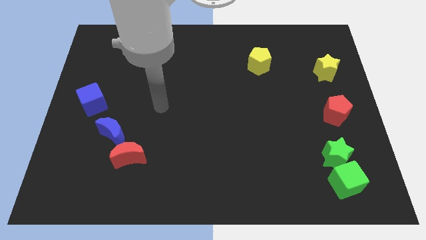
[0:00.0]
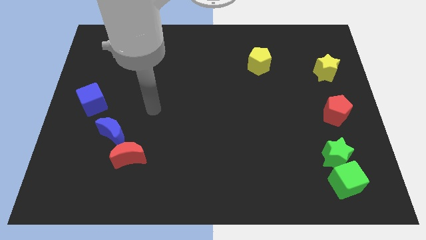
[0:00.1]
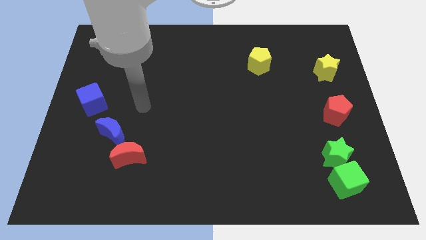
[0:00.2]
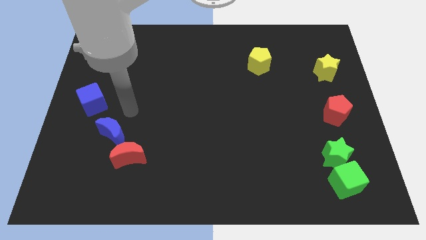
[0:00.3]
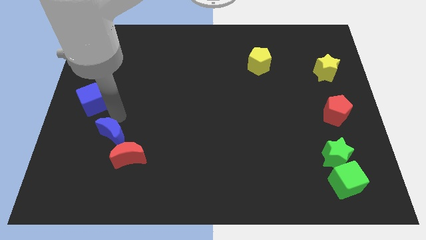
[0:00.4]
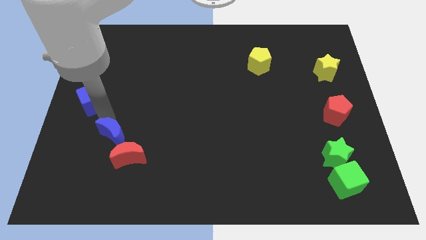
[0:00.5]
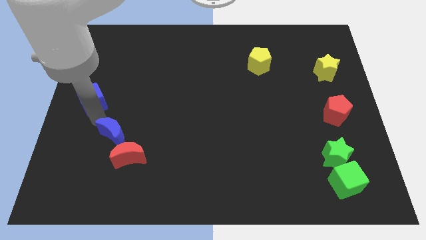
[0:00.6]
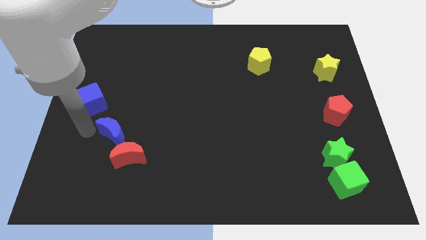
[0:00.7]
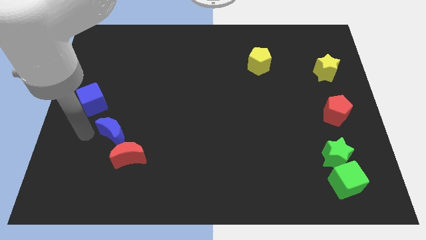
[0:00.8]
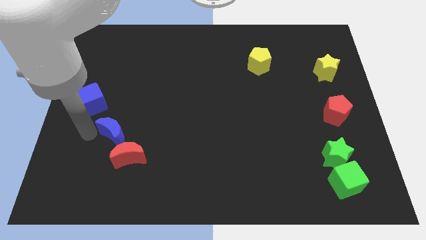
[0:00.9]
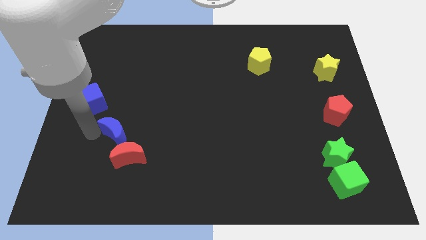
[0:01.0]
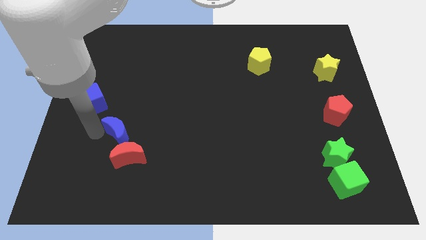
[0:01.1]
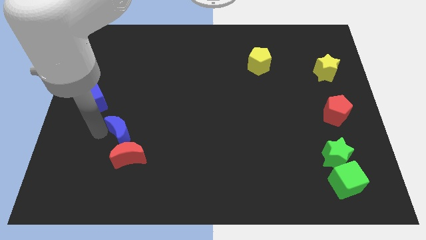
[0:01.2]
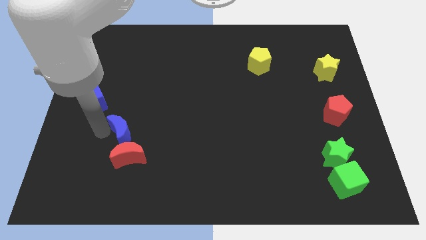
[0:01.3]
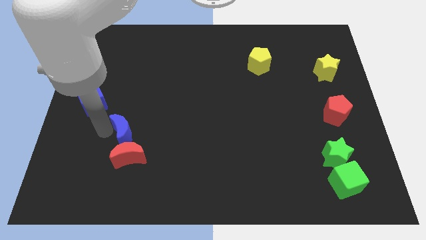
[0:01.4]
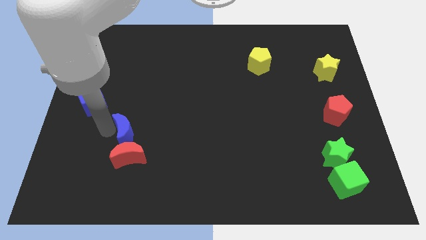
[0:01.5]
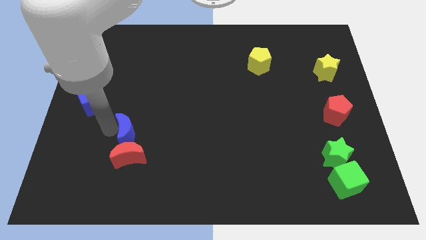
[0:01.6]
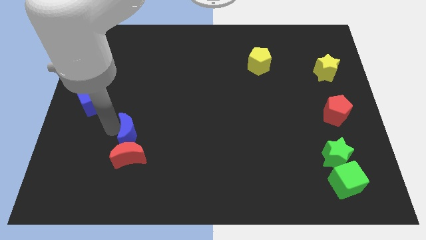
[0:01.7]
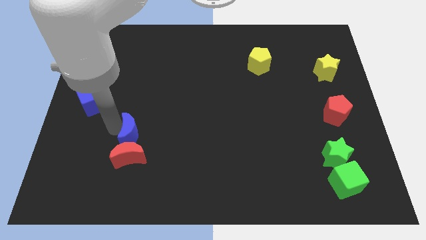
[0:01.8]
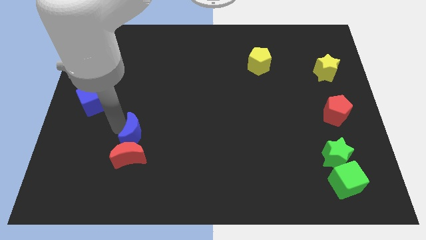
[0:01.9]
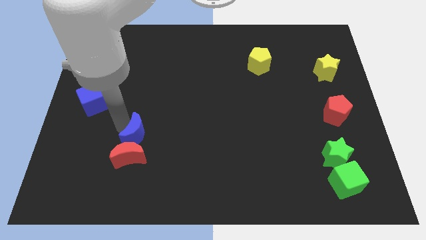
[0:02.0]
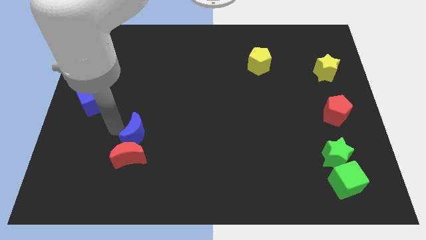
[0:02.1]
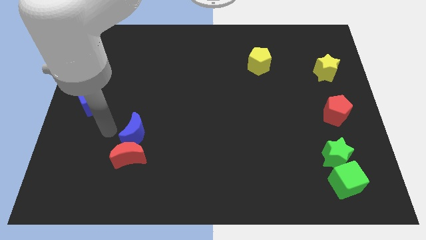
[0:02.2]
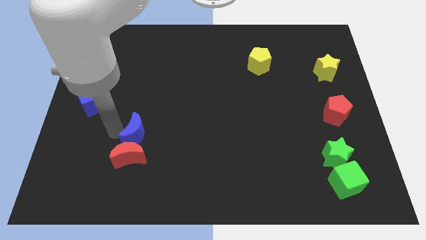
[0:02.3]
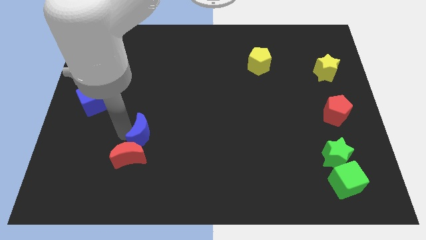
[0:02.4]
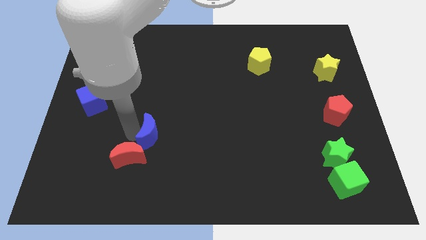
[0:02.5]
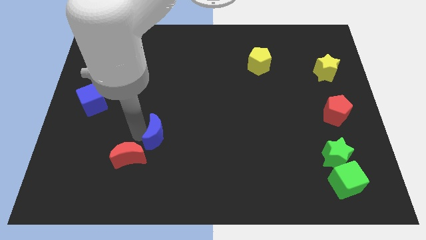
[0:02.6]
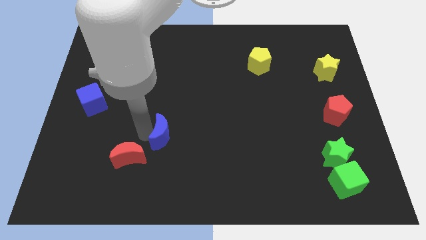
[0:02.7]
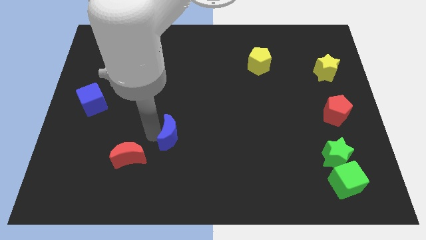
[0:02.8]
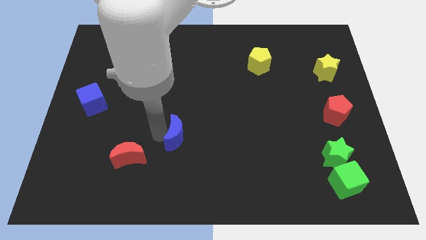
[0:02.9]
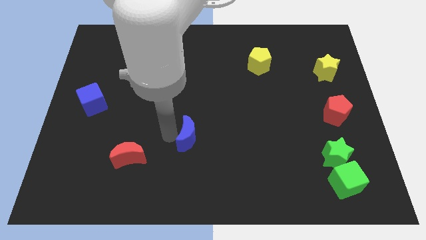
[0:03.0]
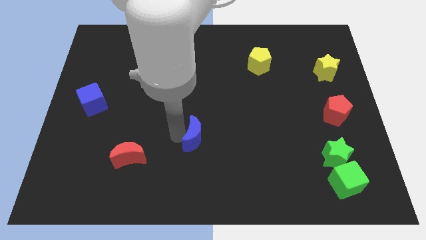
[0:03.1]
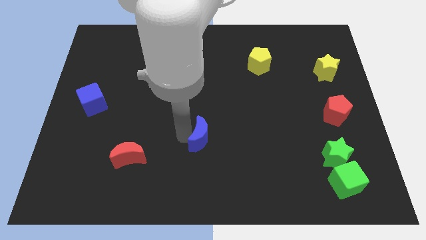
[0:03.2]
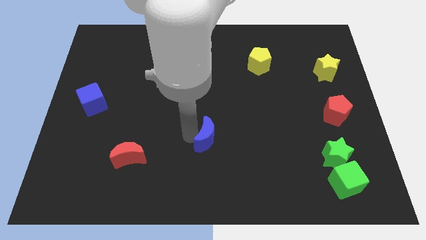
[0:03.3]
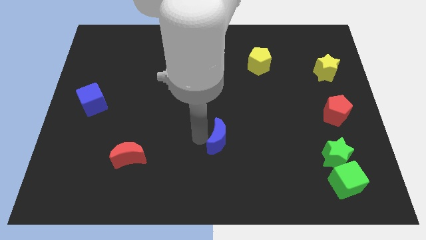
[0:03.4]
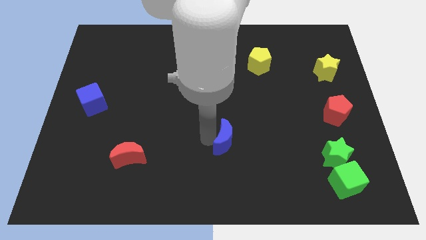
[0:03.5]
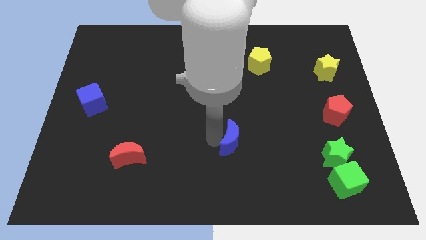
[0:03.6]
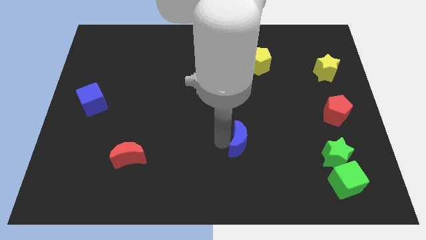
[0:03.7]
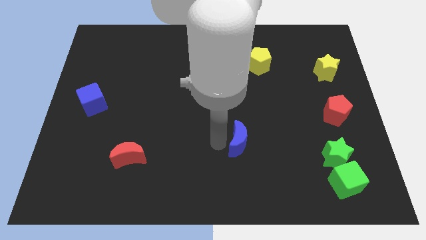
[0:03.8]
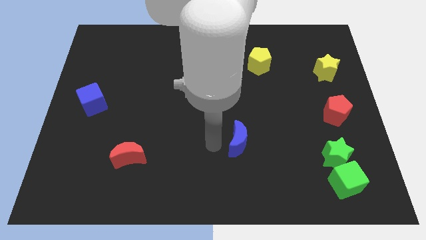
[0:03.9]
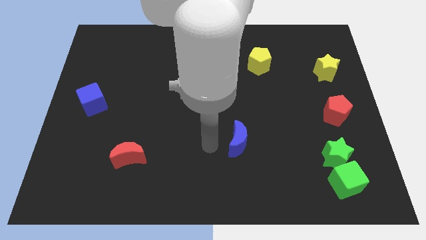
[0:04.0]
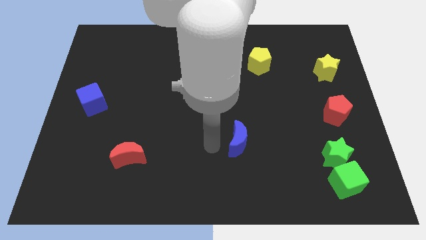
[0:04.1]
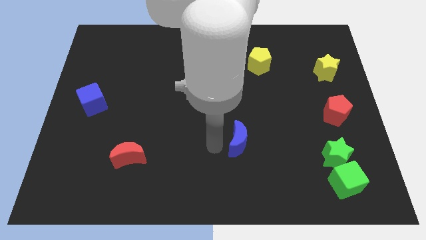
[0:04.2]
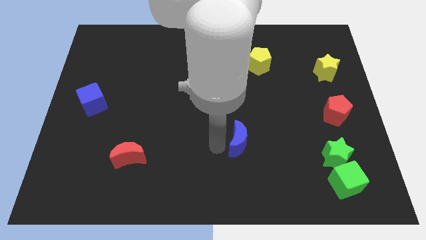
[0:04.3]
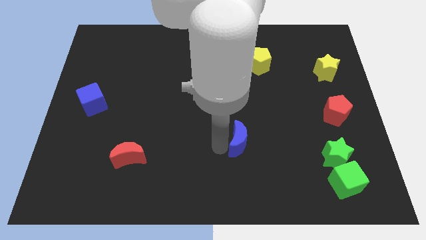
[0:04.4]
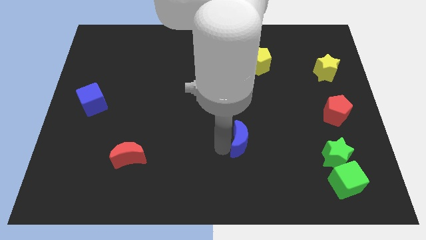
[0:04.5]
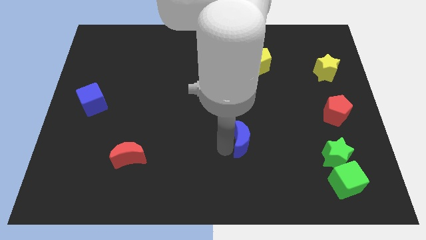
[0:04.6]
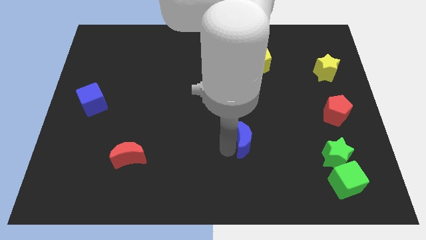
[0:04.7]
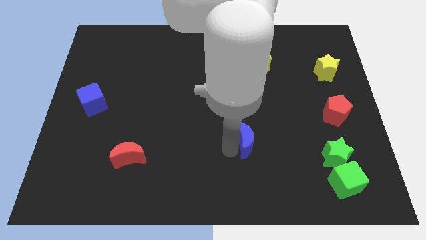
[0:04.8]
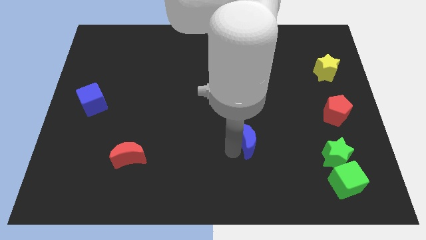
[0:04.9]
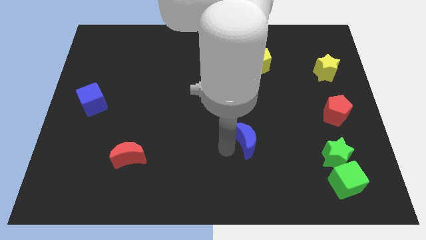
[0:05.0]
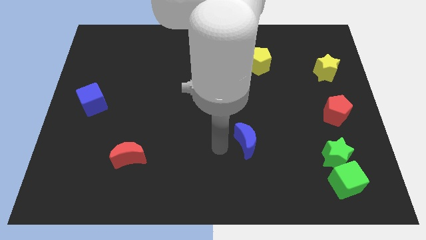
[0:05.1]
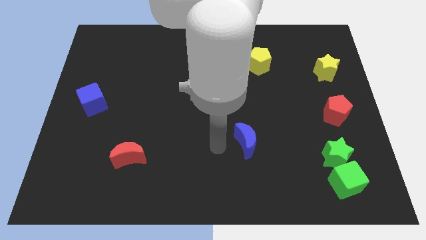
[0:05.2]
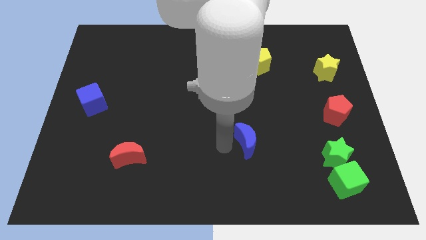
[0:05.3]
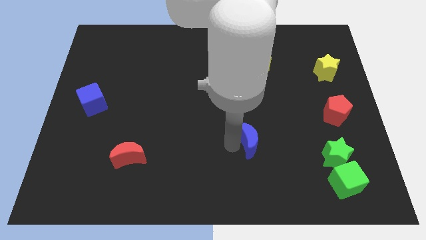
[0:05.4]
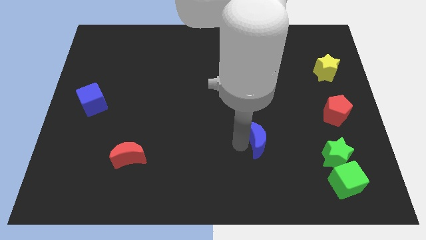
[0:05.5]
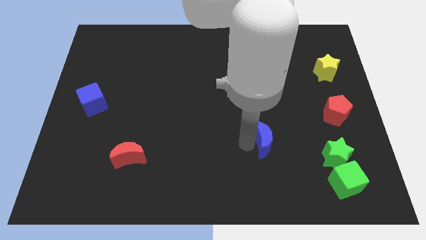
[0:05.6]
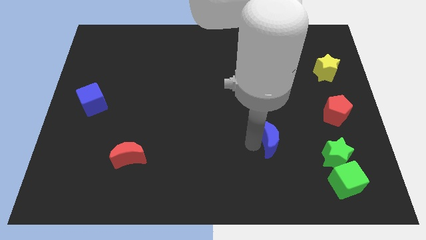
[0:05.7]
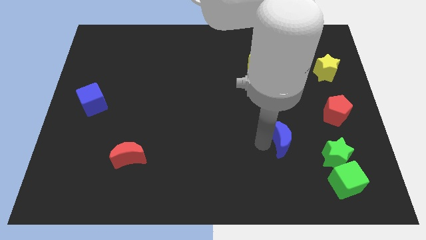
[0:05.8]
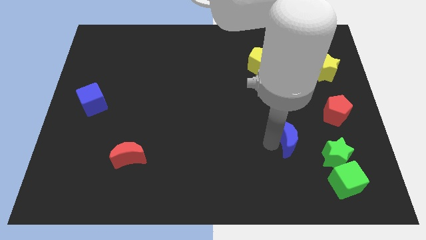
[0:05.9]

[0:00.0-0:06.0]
put the blue moon to the top left side of the green star

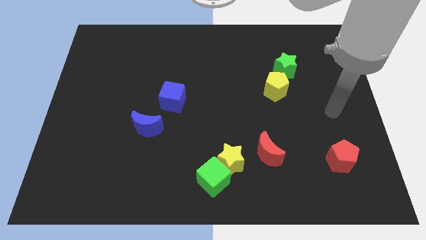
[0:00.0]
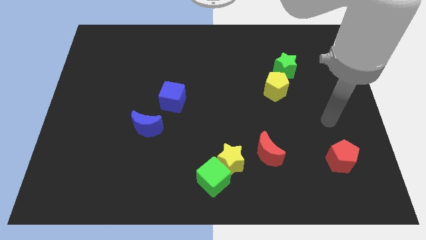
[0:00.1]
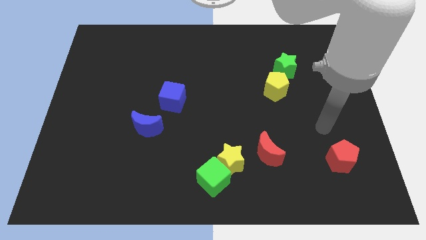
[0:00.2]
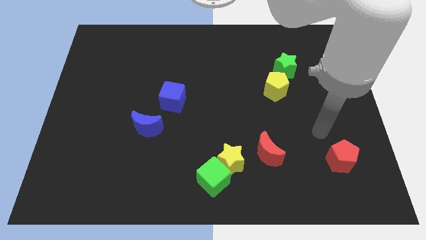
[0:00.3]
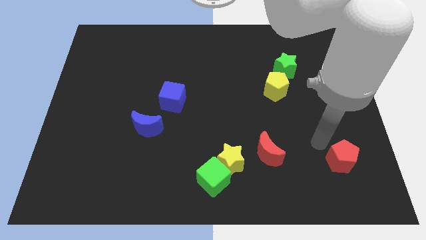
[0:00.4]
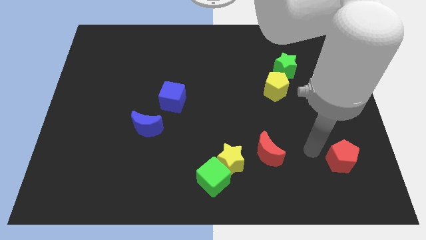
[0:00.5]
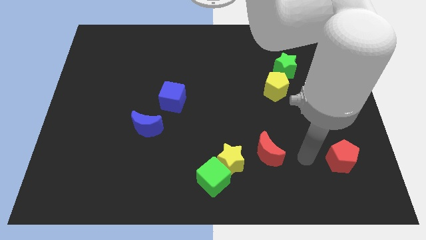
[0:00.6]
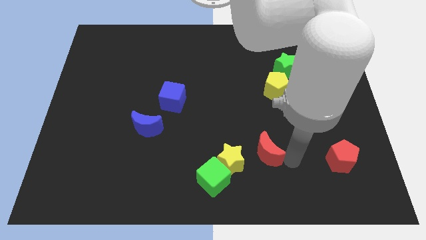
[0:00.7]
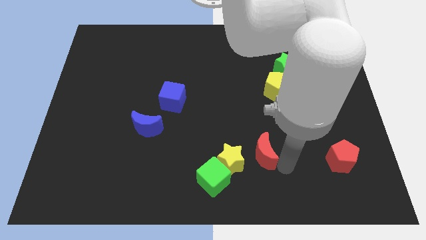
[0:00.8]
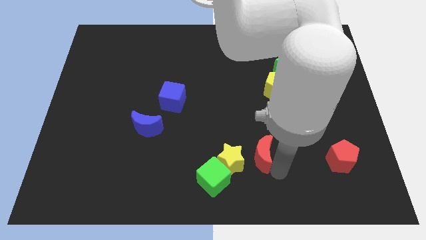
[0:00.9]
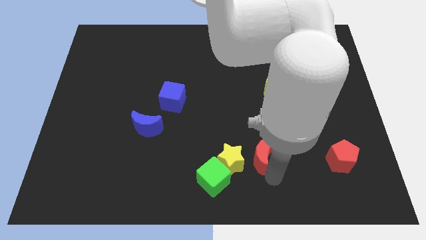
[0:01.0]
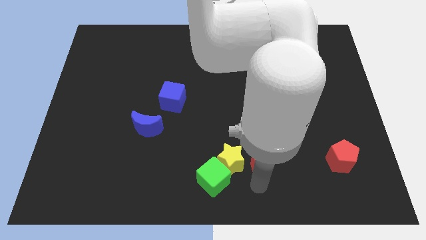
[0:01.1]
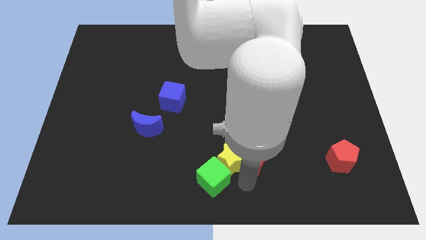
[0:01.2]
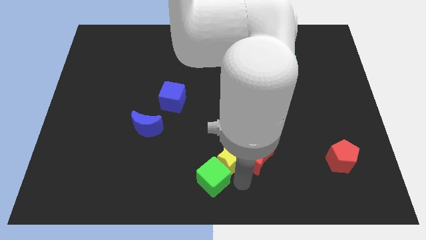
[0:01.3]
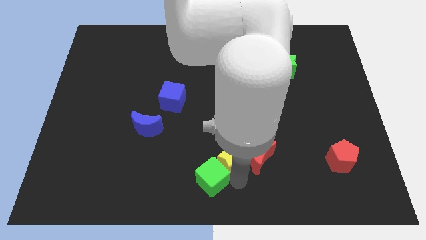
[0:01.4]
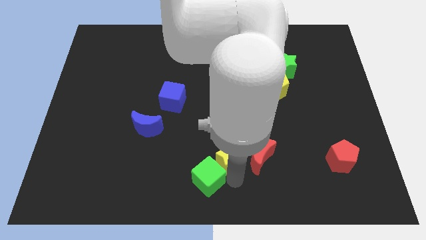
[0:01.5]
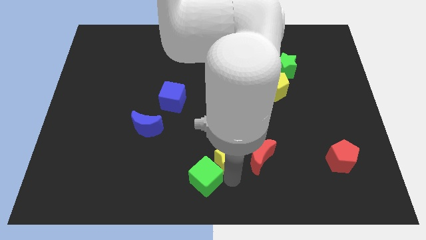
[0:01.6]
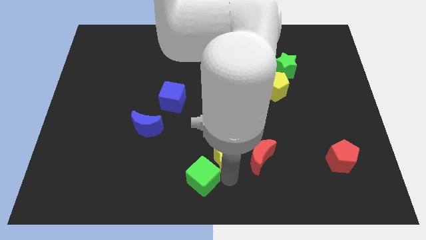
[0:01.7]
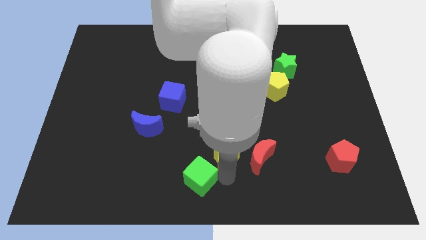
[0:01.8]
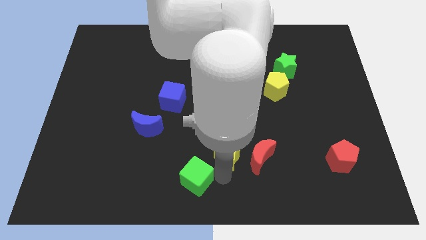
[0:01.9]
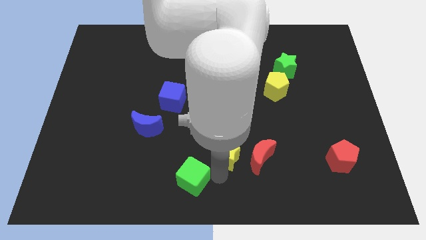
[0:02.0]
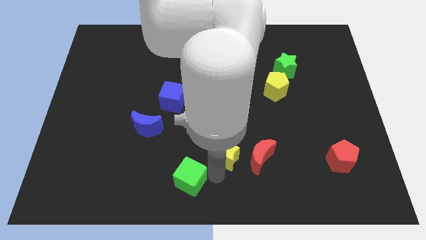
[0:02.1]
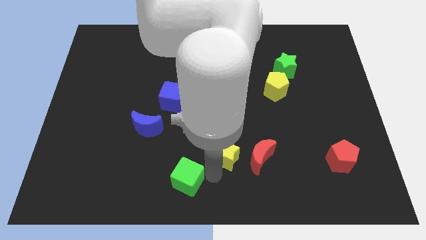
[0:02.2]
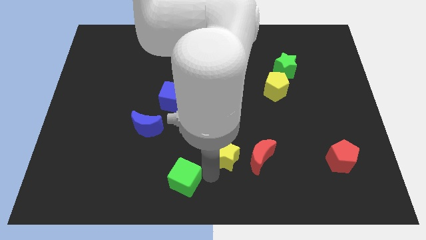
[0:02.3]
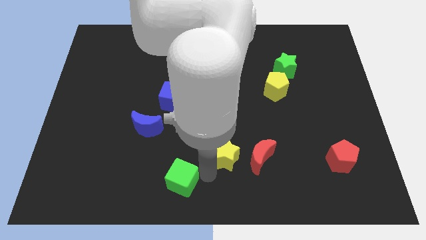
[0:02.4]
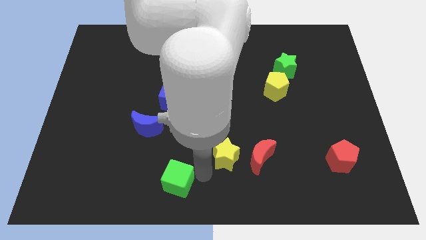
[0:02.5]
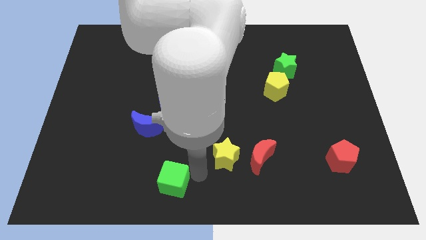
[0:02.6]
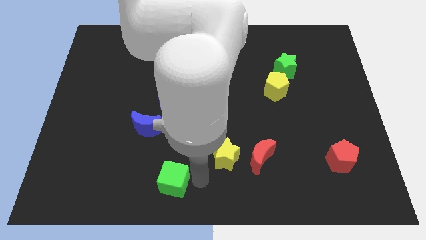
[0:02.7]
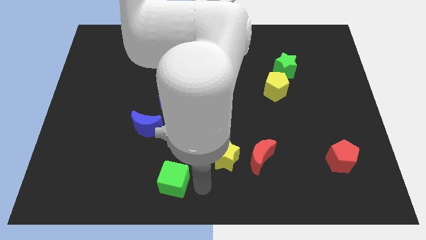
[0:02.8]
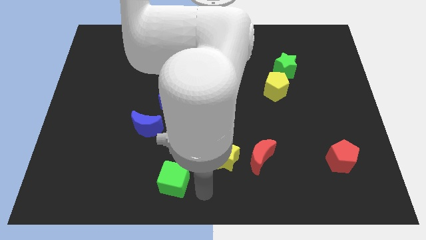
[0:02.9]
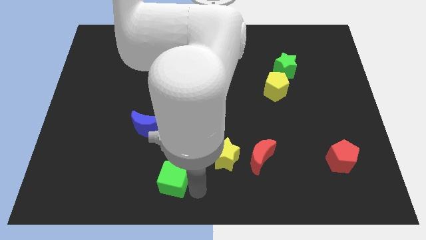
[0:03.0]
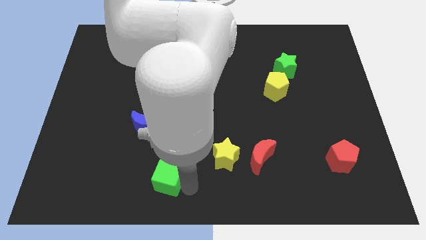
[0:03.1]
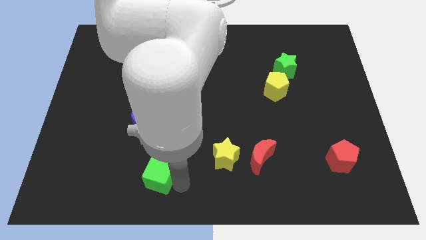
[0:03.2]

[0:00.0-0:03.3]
move the green cube to the bottom of the blue moon
